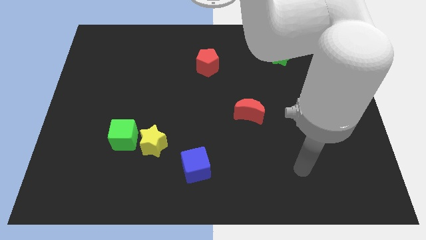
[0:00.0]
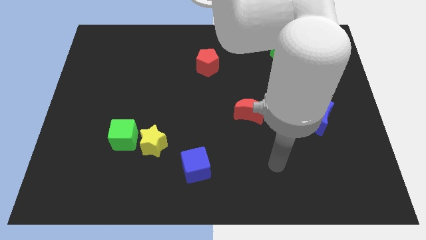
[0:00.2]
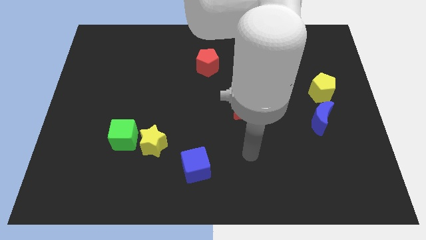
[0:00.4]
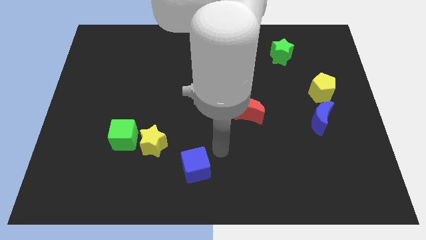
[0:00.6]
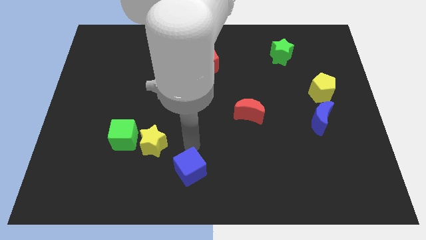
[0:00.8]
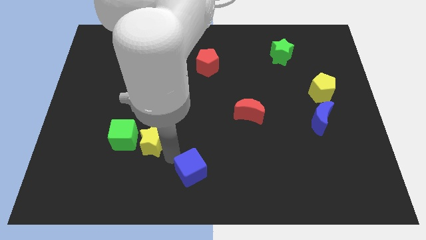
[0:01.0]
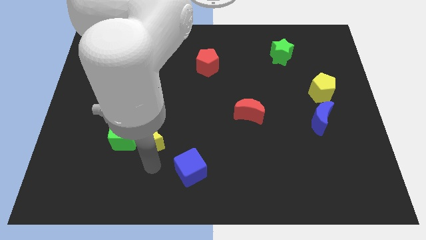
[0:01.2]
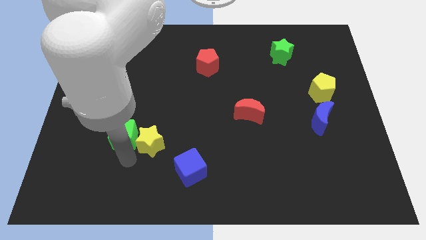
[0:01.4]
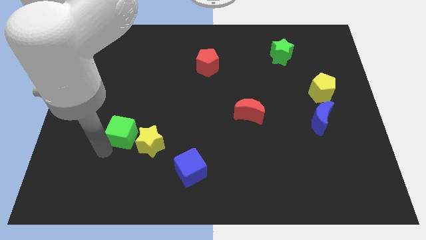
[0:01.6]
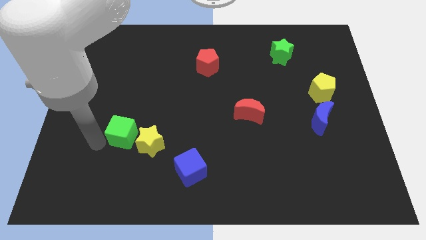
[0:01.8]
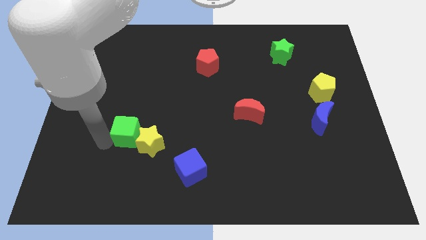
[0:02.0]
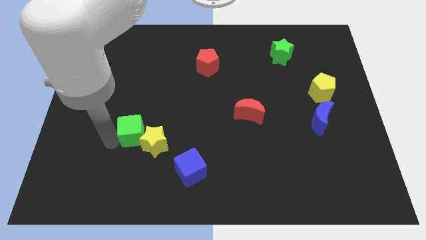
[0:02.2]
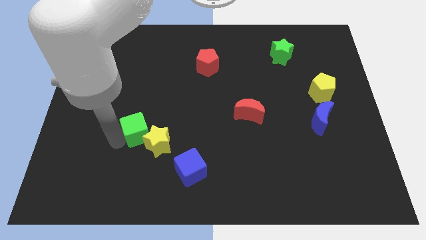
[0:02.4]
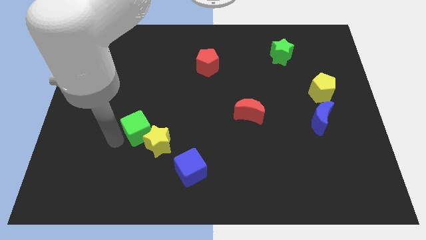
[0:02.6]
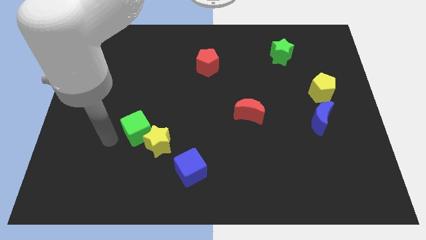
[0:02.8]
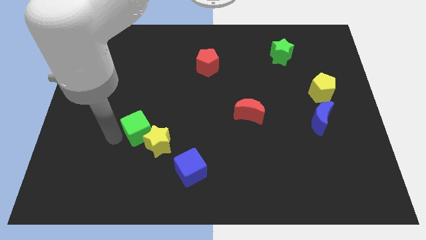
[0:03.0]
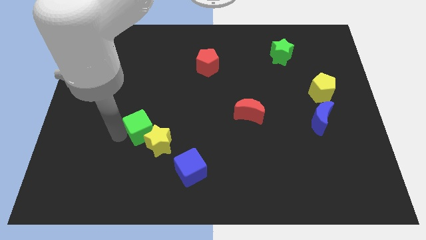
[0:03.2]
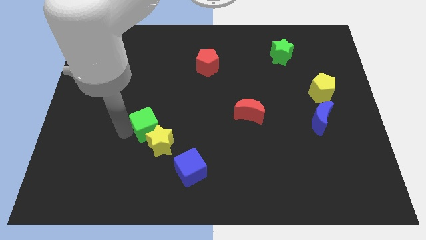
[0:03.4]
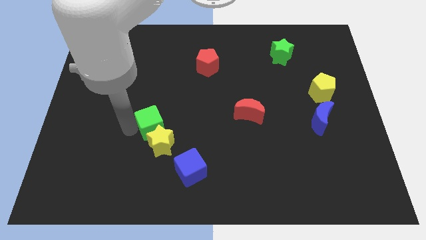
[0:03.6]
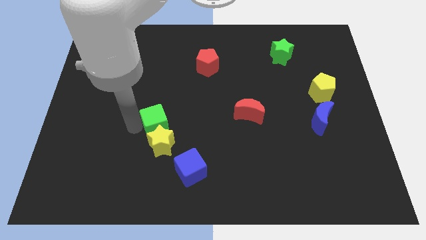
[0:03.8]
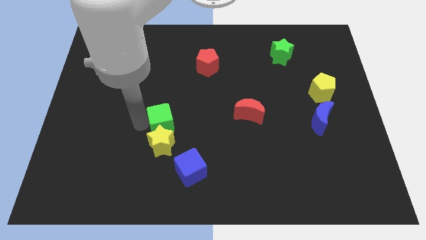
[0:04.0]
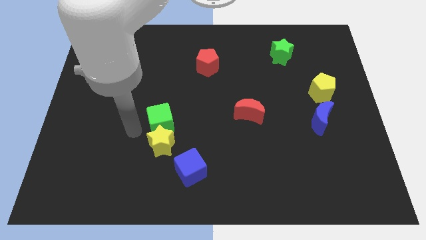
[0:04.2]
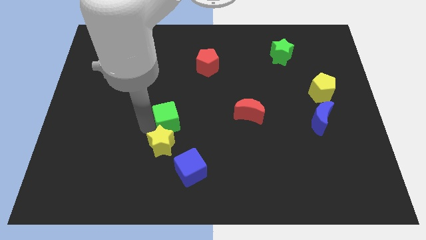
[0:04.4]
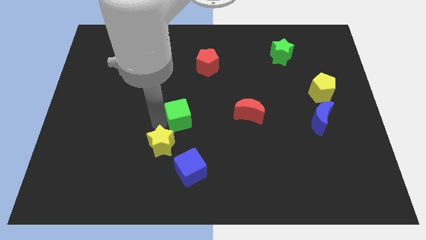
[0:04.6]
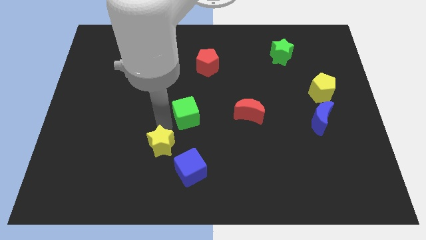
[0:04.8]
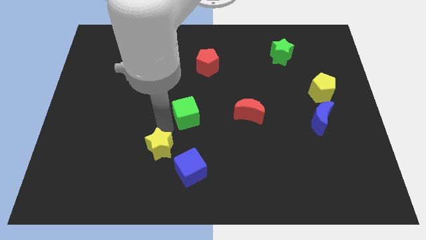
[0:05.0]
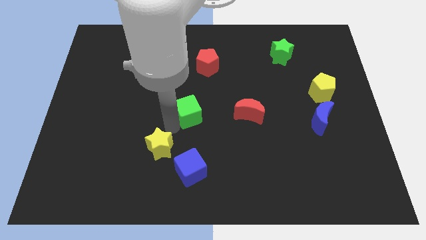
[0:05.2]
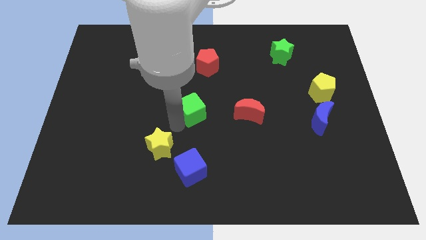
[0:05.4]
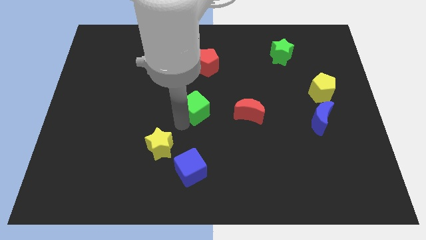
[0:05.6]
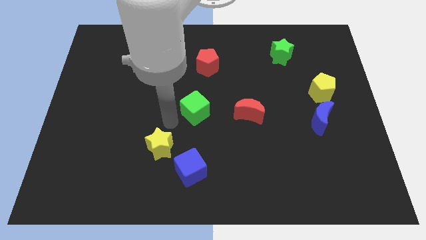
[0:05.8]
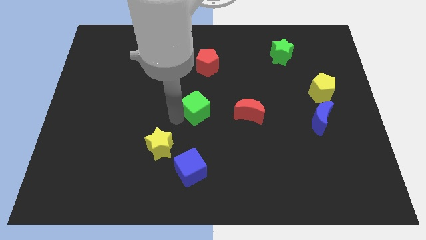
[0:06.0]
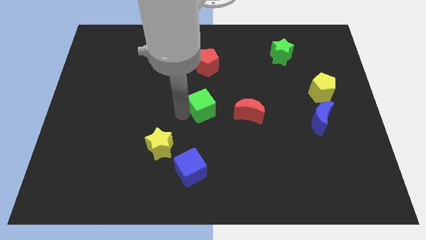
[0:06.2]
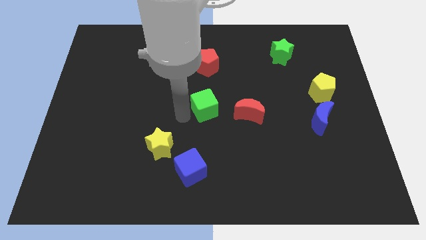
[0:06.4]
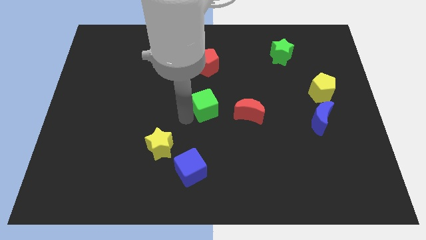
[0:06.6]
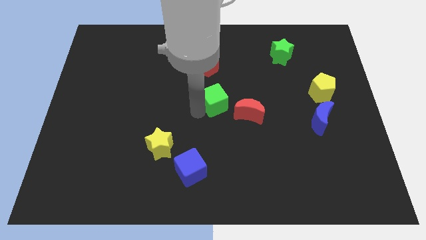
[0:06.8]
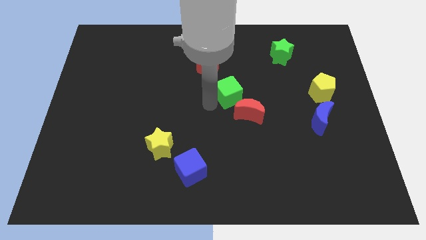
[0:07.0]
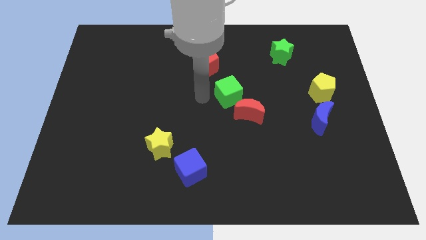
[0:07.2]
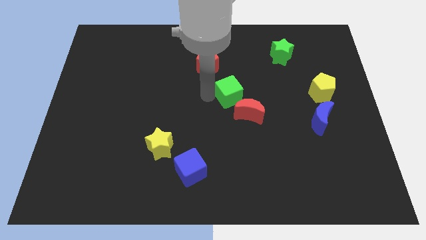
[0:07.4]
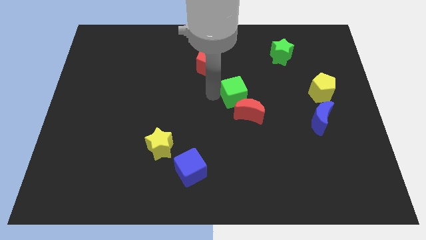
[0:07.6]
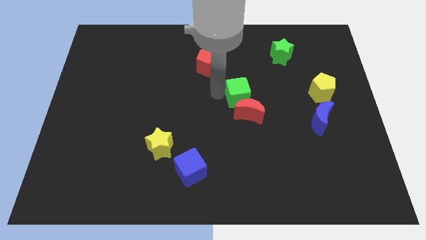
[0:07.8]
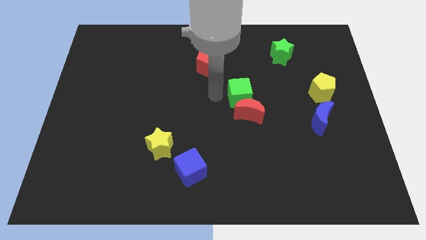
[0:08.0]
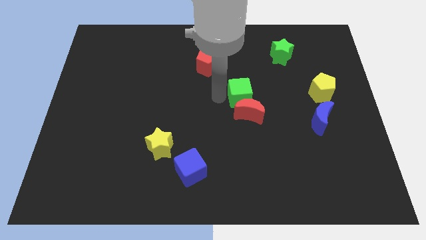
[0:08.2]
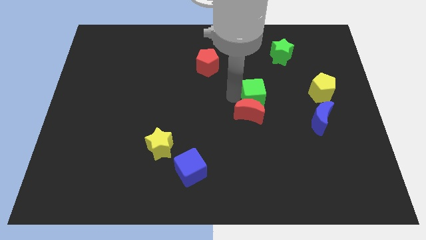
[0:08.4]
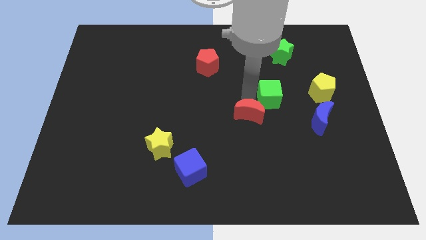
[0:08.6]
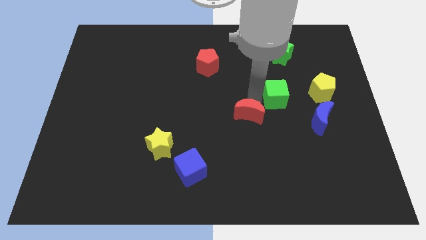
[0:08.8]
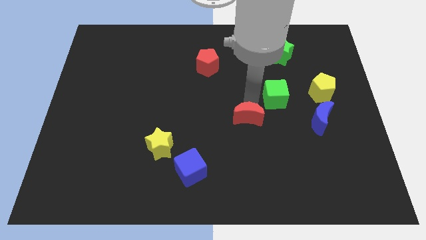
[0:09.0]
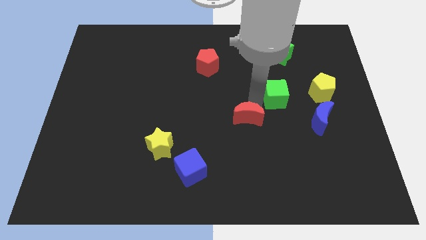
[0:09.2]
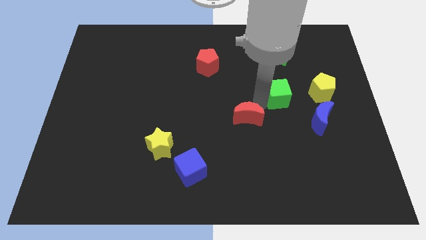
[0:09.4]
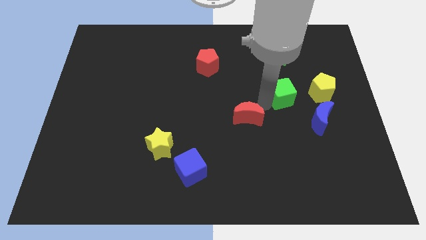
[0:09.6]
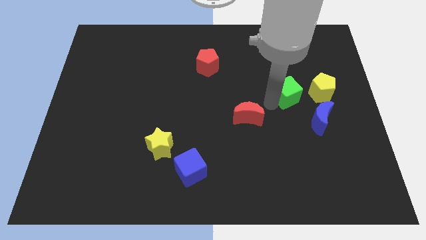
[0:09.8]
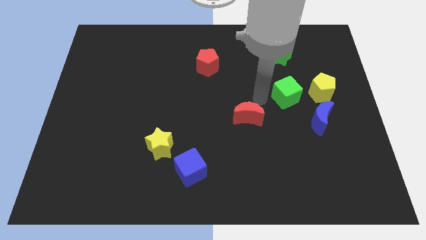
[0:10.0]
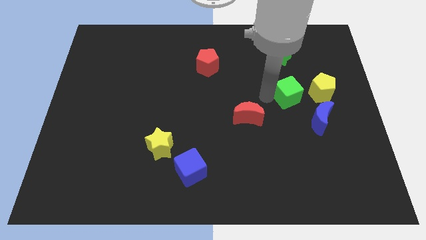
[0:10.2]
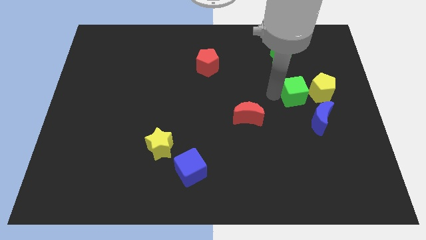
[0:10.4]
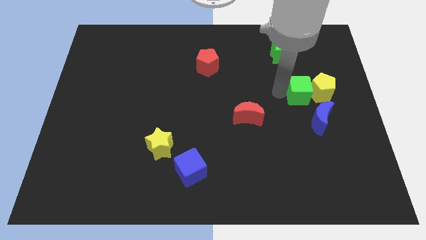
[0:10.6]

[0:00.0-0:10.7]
push the green cube to the yellow pentagon

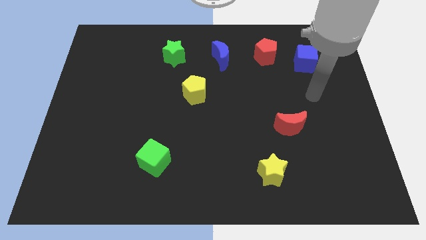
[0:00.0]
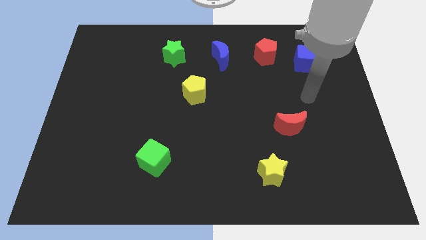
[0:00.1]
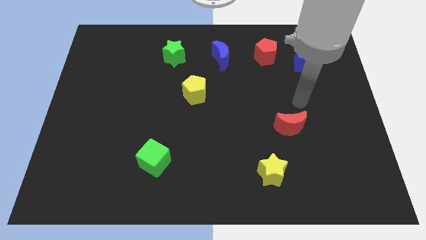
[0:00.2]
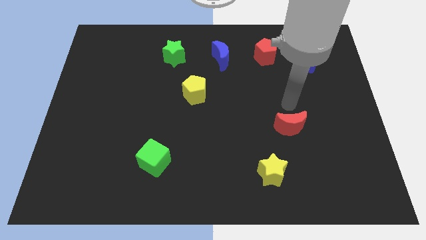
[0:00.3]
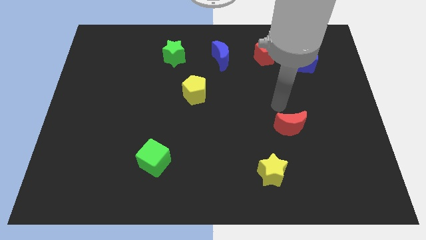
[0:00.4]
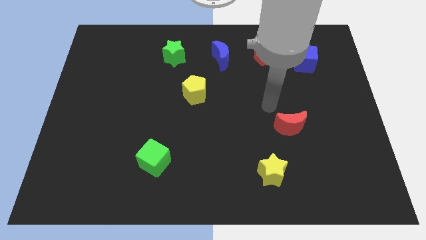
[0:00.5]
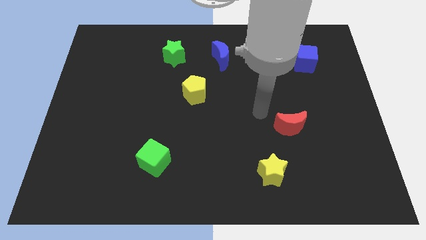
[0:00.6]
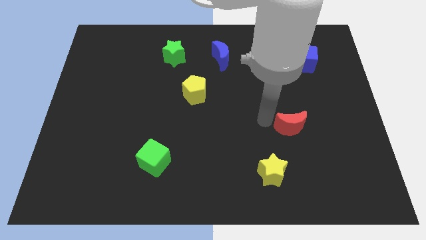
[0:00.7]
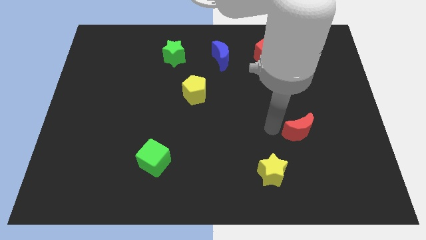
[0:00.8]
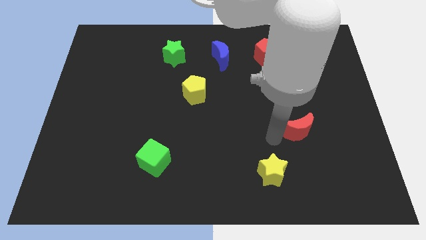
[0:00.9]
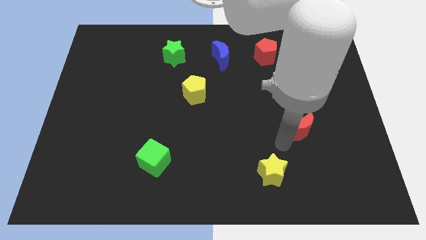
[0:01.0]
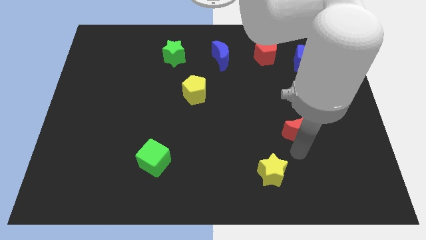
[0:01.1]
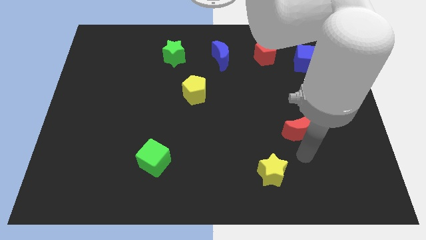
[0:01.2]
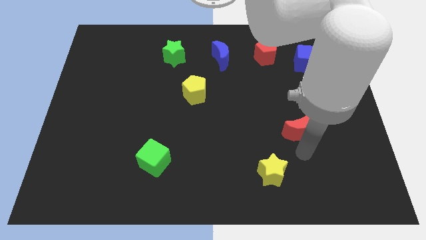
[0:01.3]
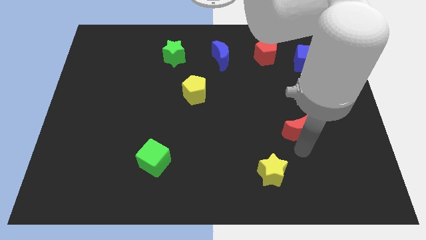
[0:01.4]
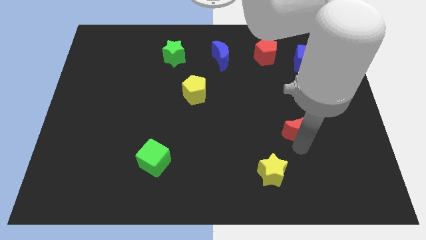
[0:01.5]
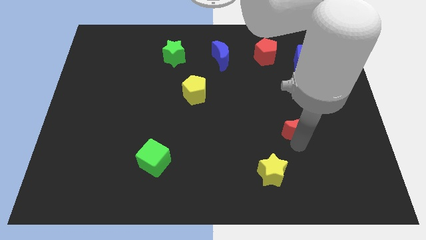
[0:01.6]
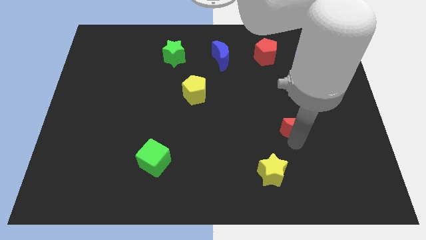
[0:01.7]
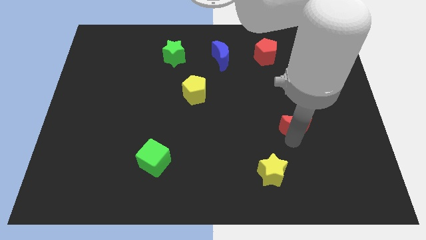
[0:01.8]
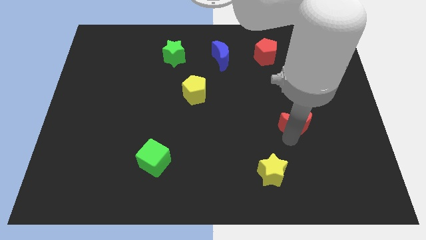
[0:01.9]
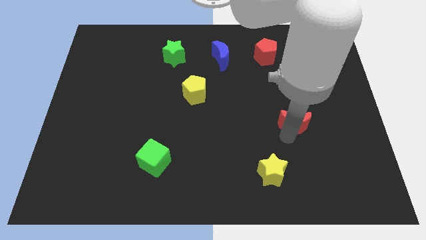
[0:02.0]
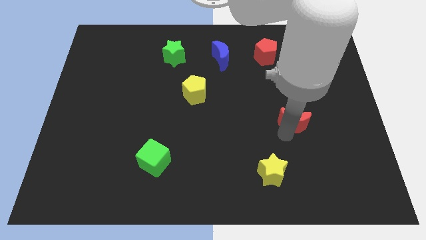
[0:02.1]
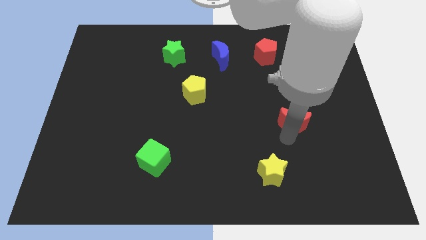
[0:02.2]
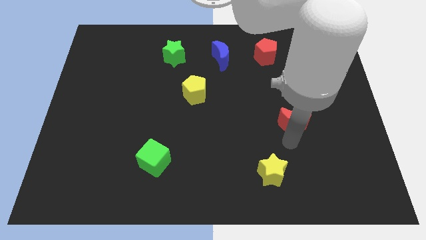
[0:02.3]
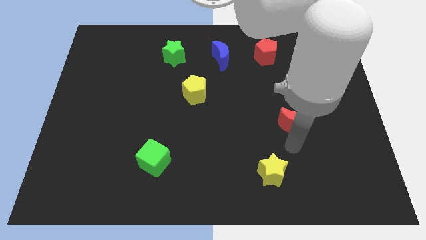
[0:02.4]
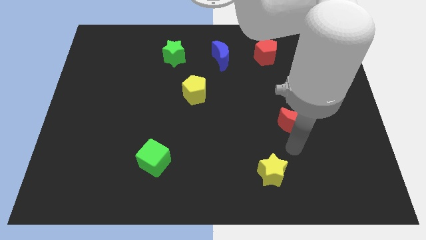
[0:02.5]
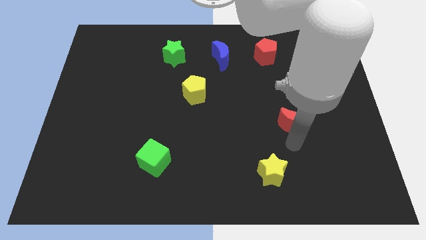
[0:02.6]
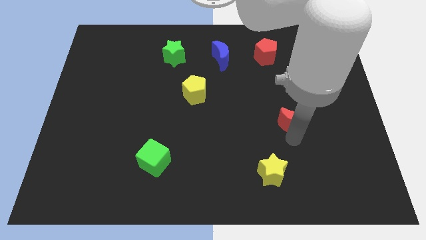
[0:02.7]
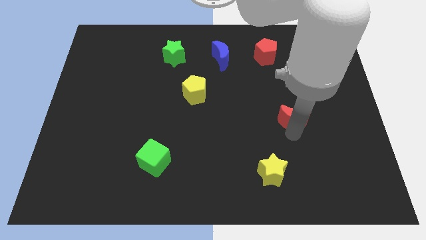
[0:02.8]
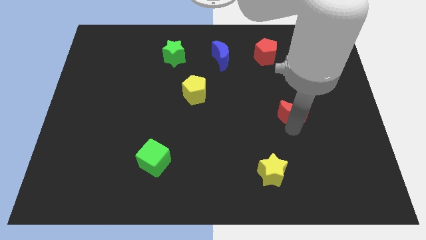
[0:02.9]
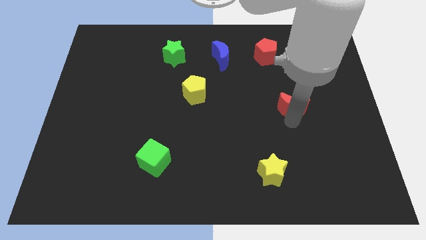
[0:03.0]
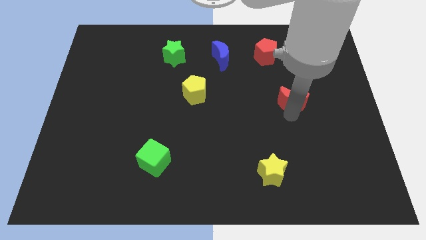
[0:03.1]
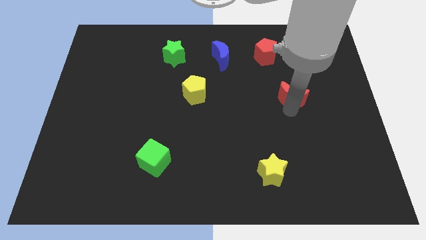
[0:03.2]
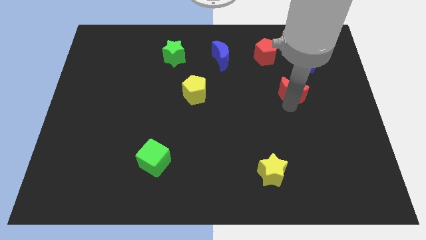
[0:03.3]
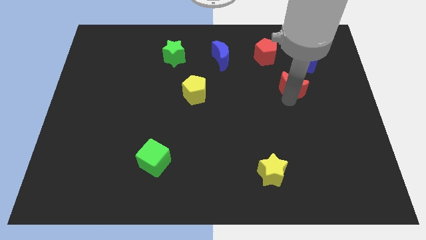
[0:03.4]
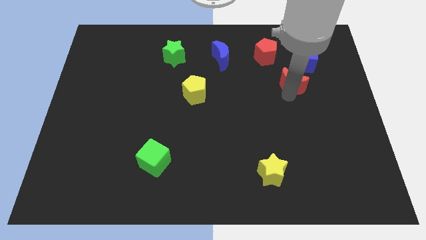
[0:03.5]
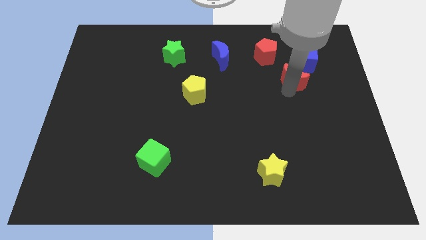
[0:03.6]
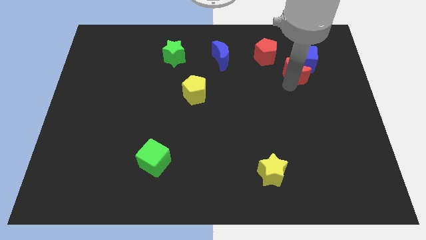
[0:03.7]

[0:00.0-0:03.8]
slide the red moon next to the blue cube
